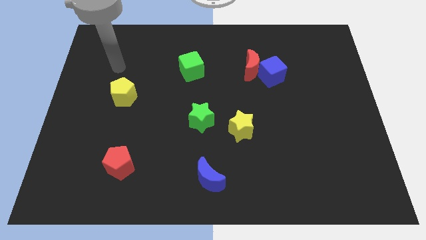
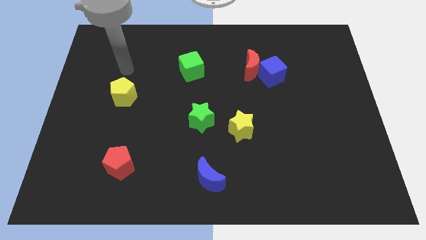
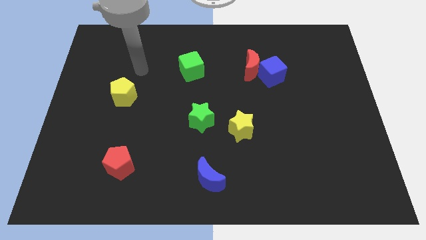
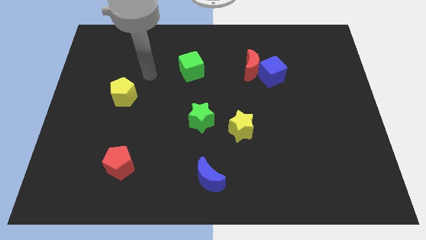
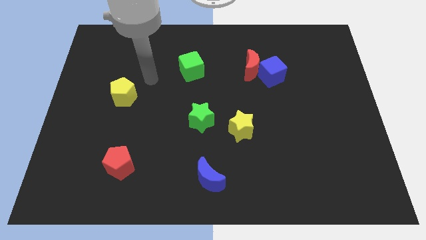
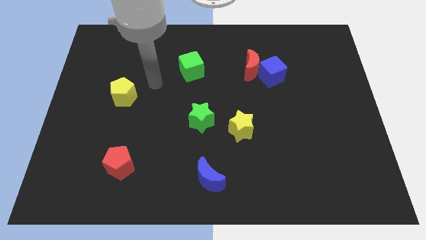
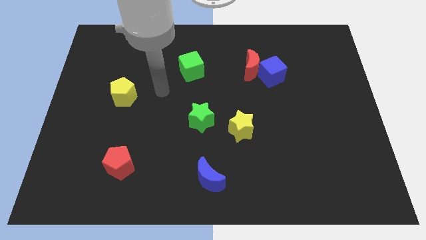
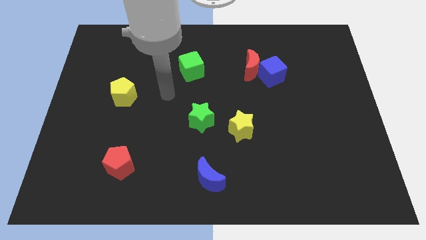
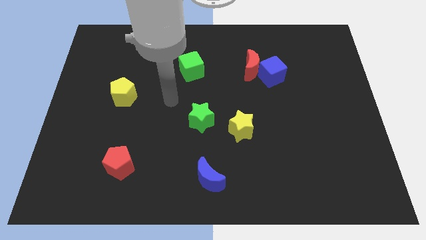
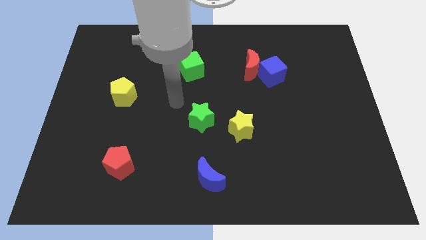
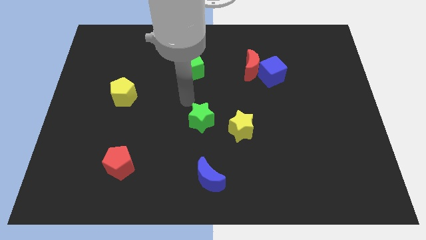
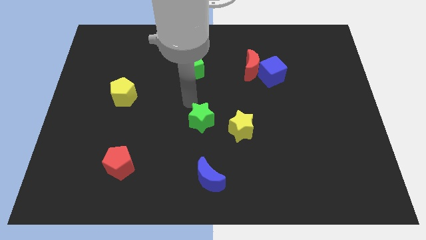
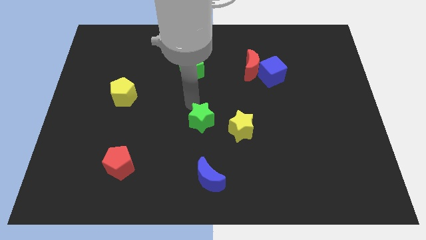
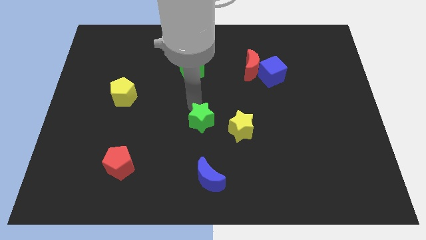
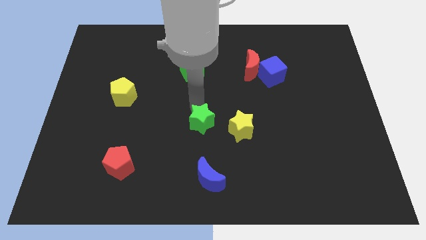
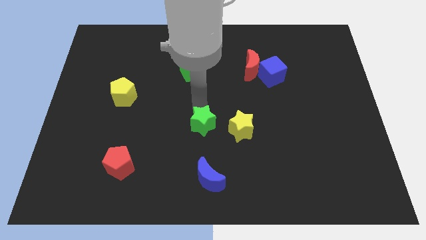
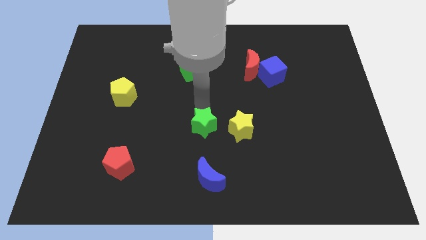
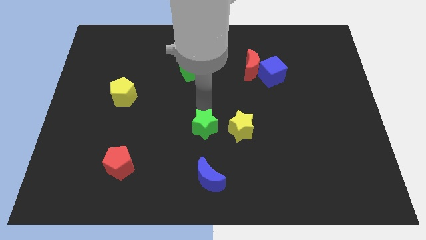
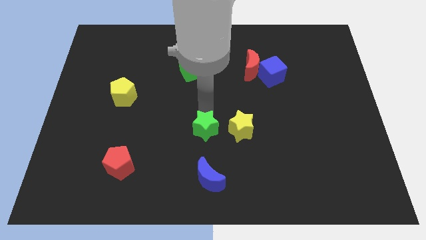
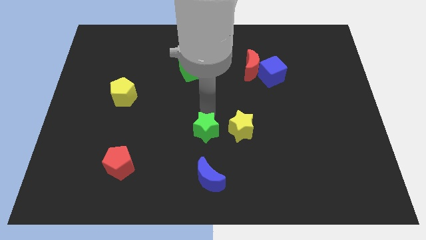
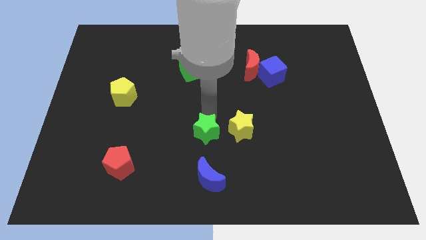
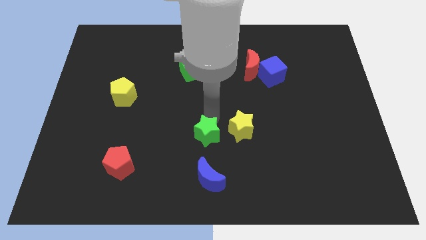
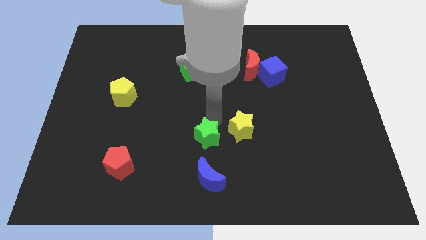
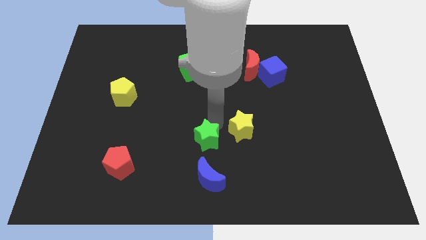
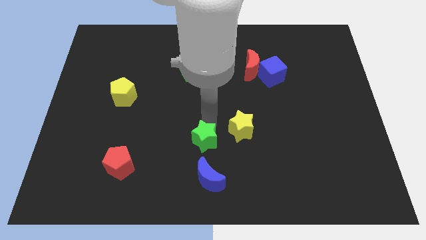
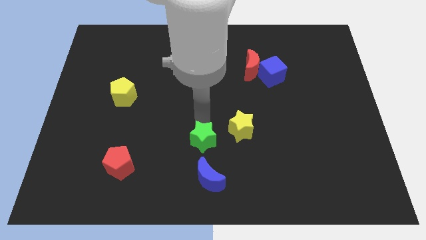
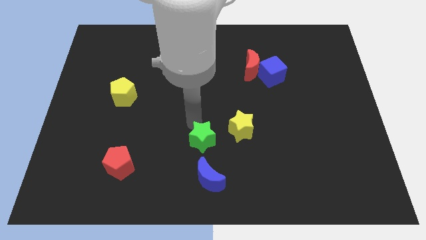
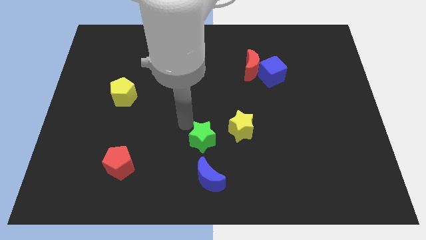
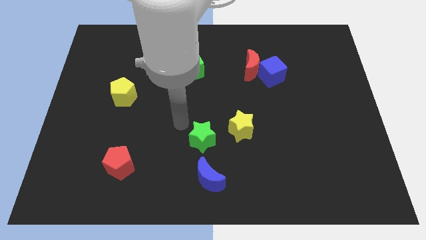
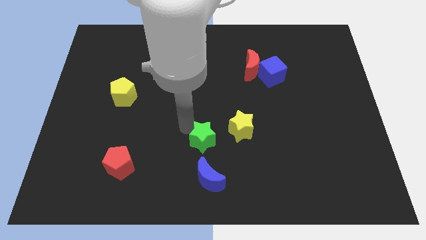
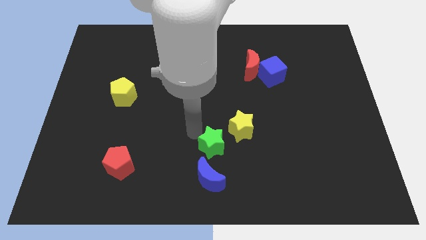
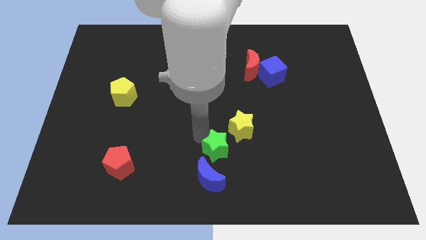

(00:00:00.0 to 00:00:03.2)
push the green star somewhat downwards and right

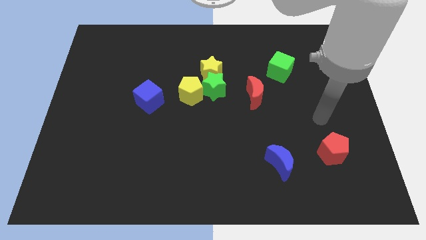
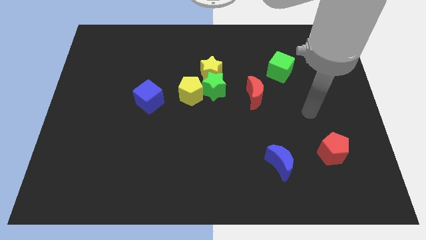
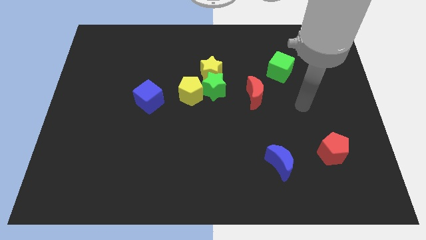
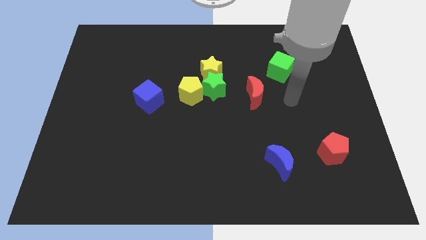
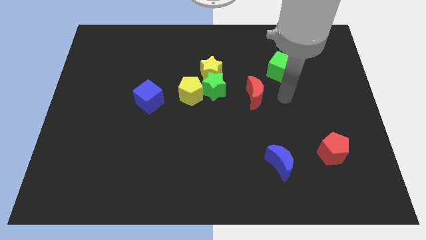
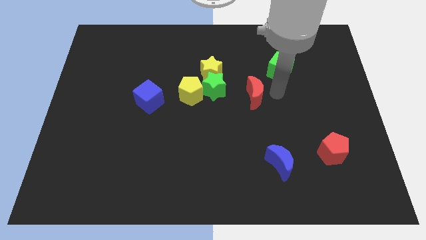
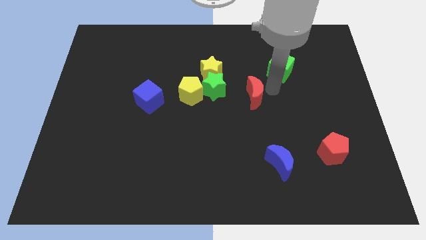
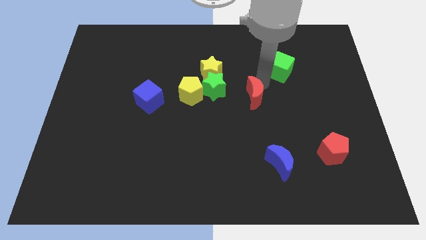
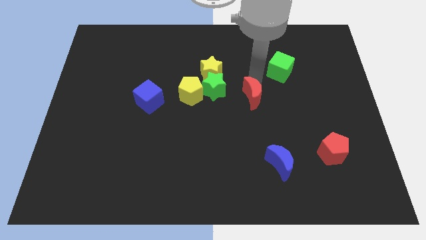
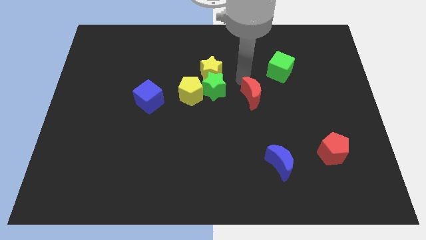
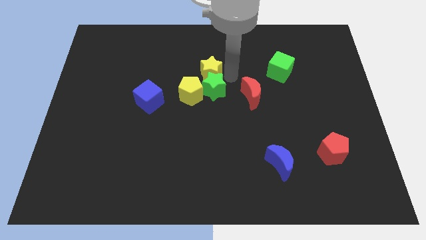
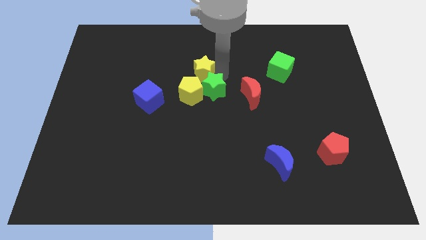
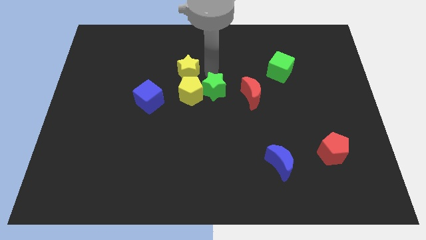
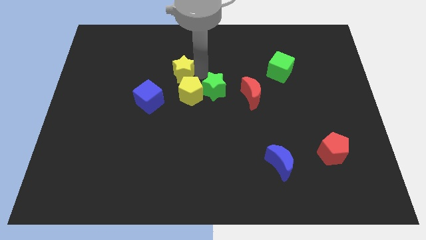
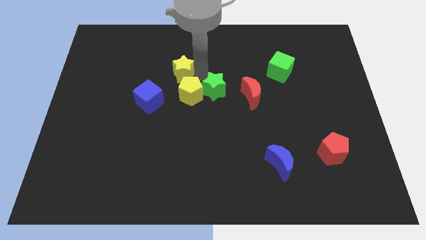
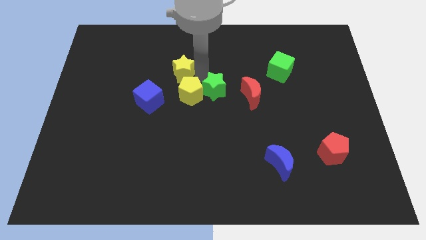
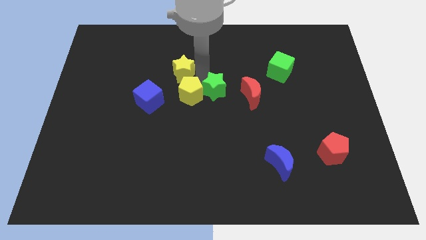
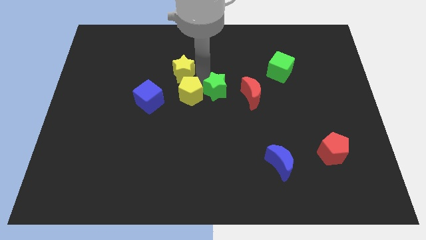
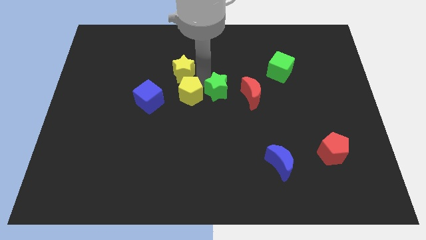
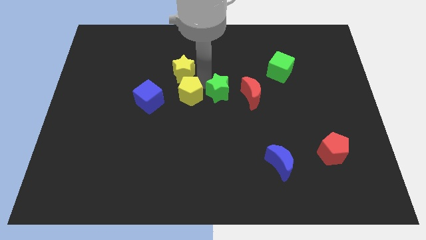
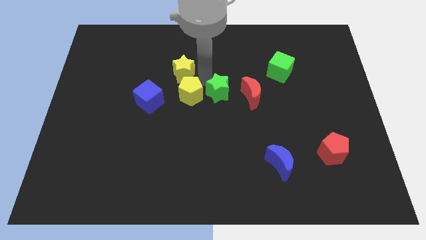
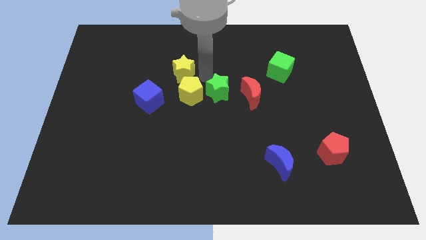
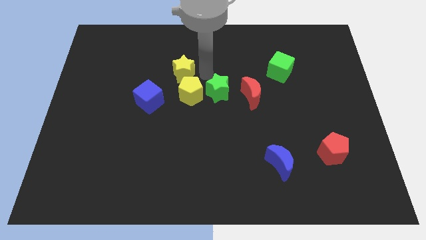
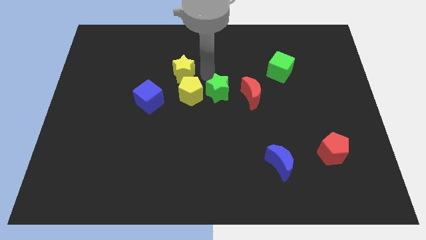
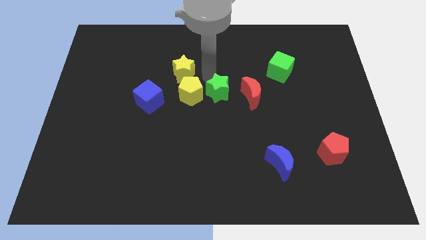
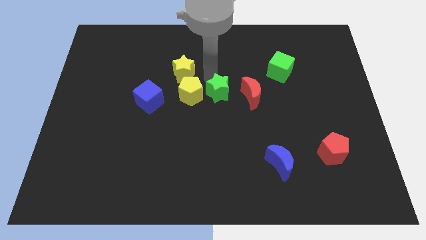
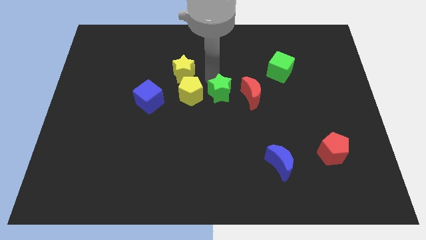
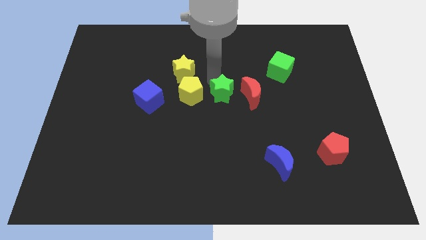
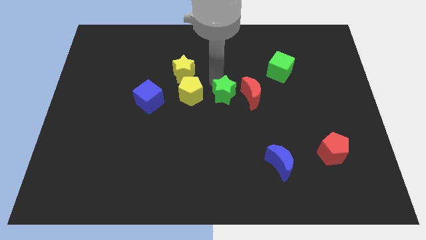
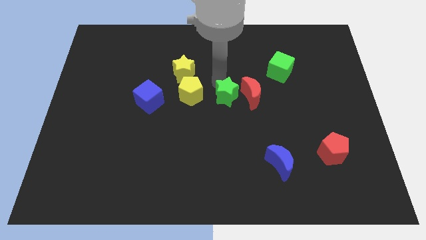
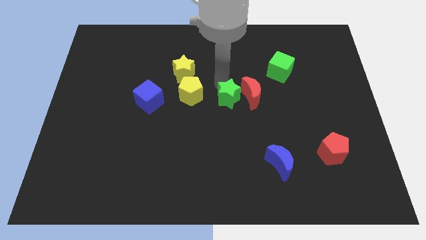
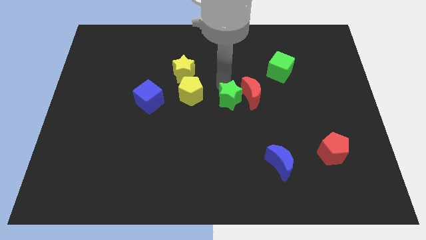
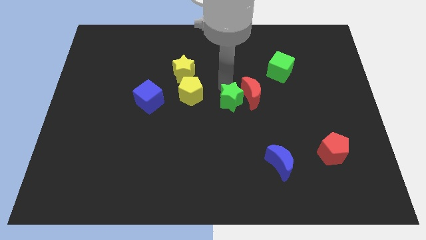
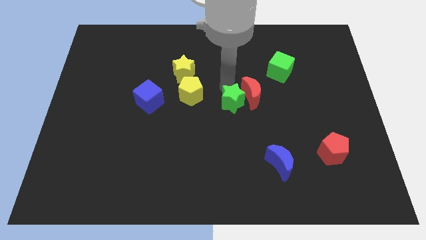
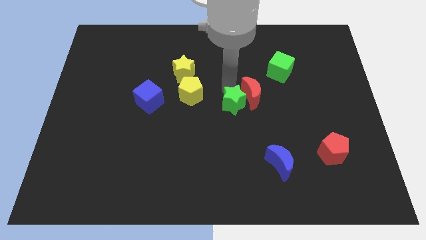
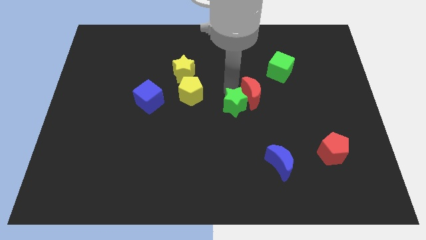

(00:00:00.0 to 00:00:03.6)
slide the green star a bit diagonally downwards and to the right

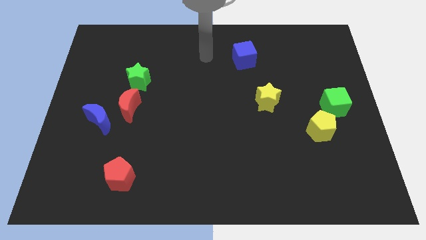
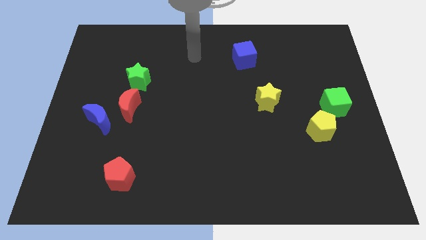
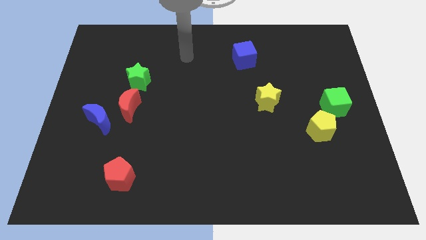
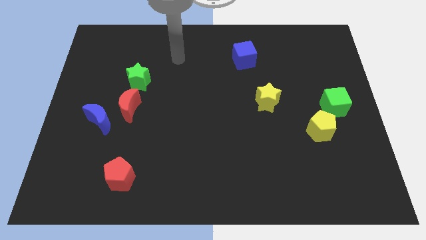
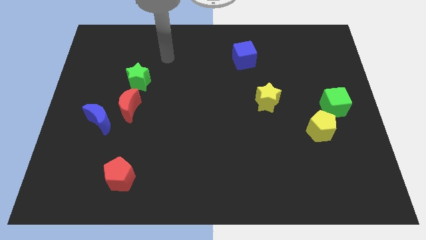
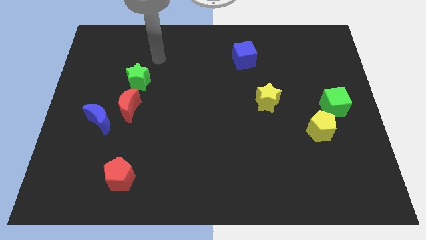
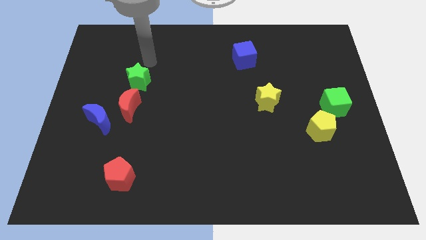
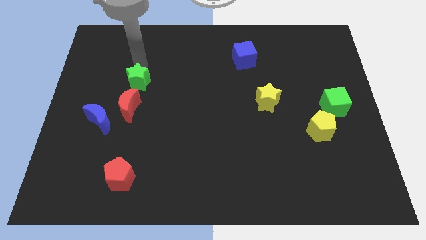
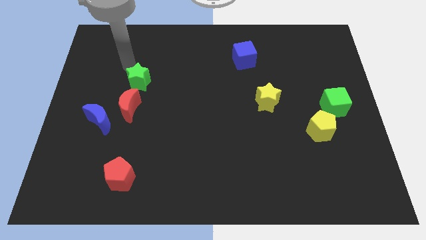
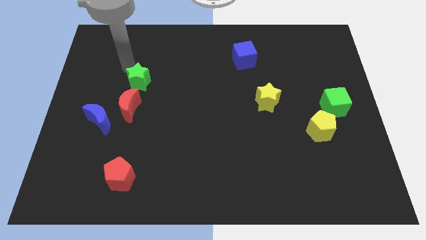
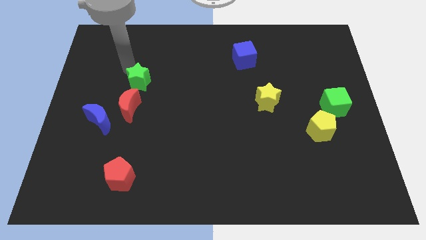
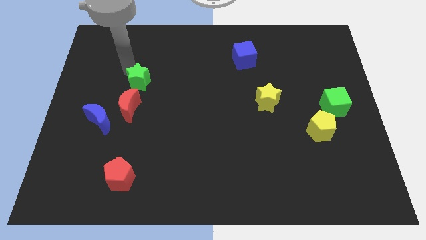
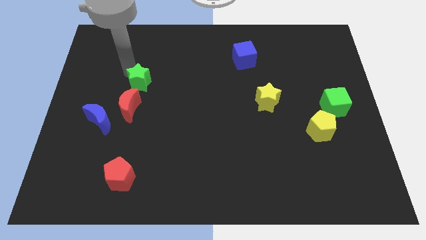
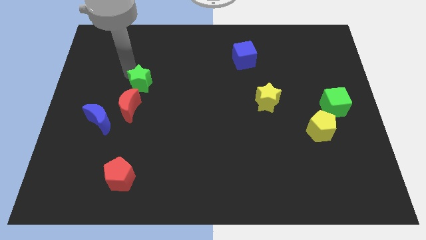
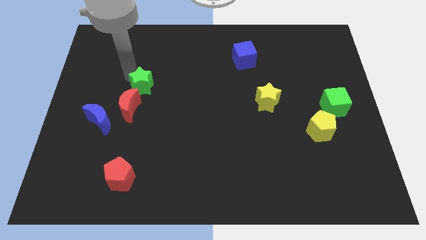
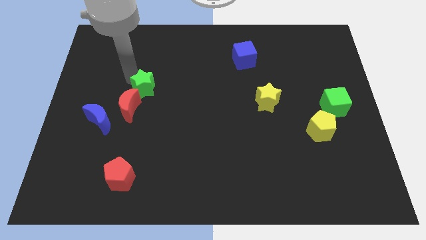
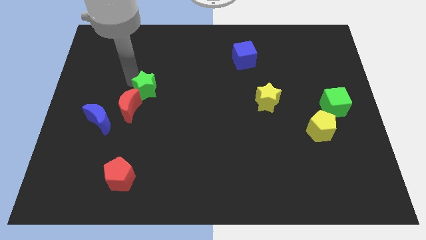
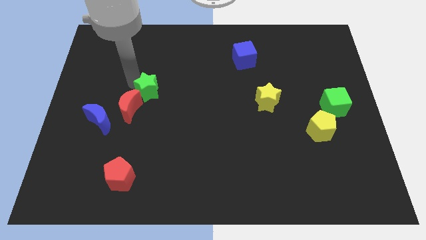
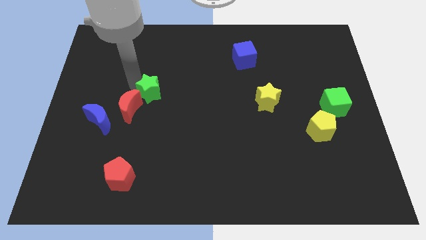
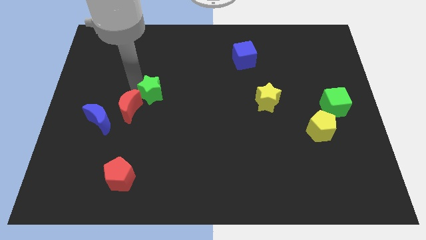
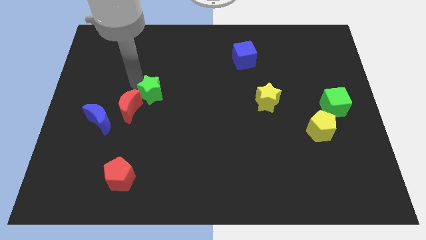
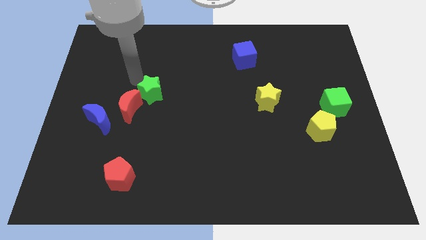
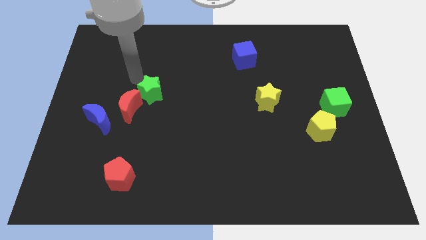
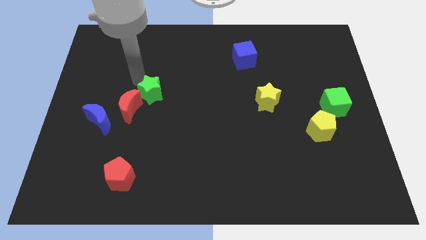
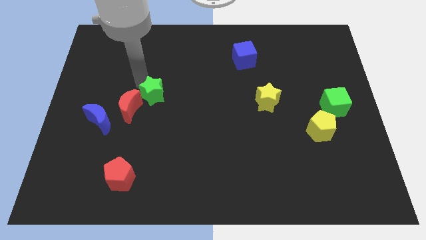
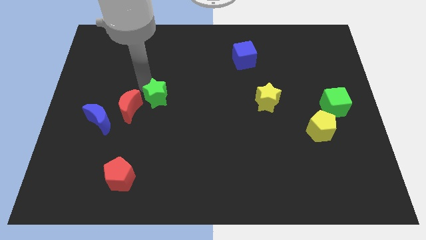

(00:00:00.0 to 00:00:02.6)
slide the green star slightly downwards and right diagonally
